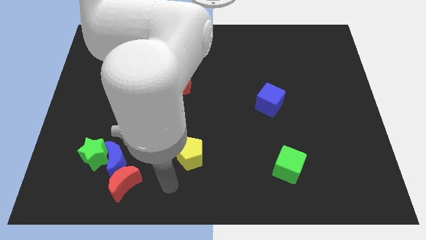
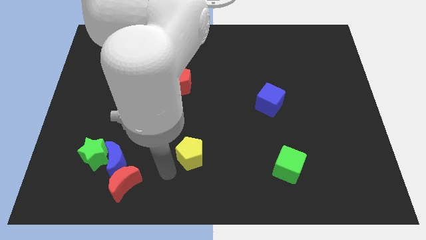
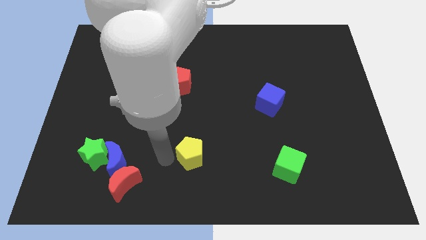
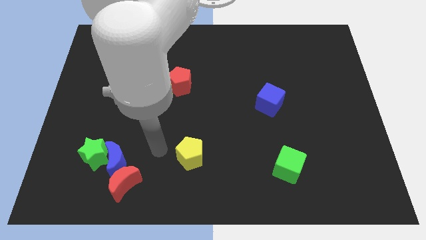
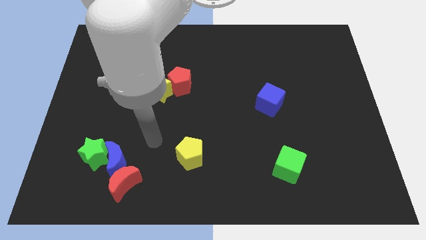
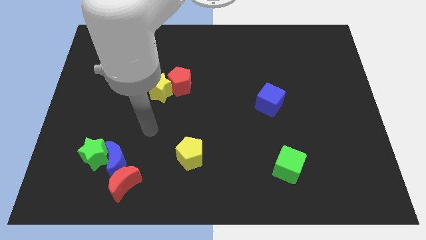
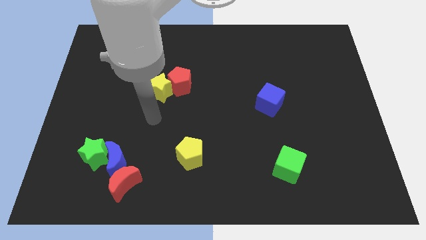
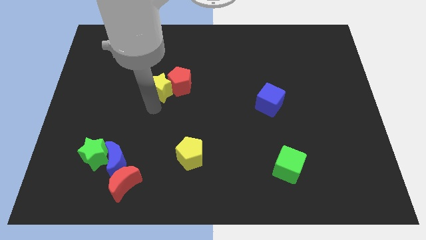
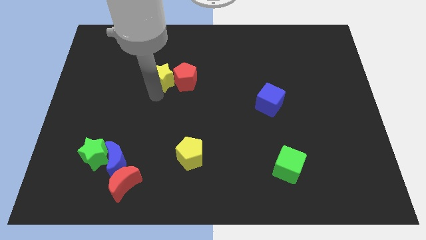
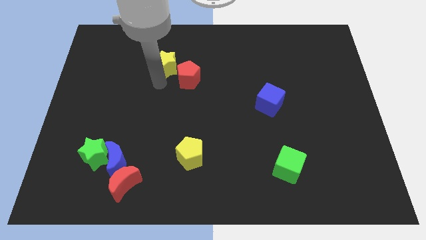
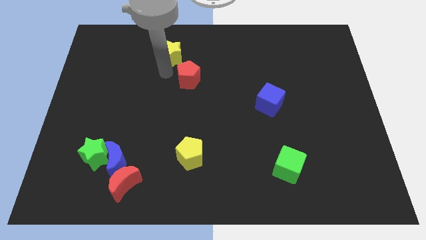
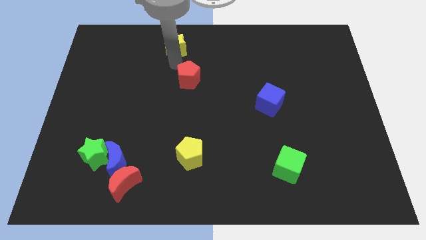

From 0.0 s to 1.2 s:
pull the red pentagon apart from the yellow star

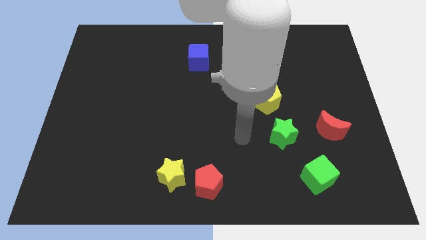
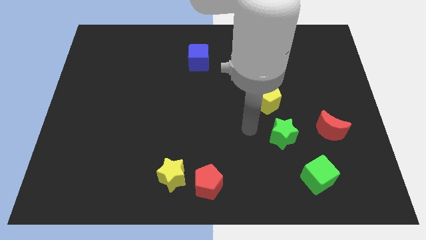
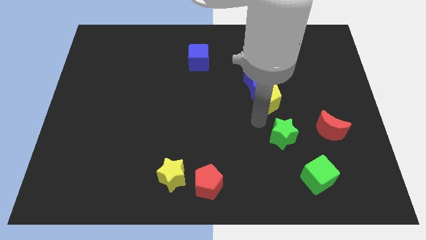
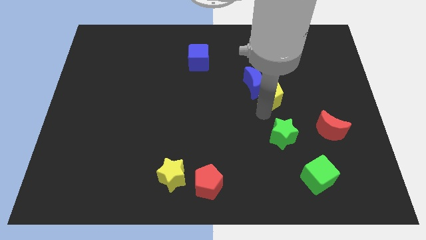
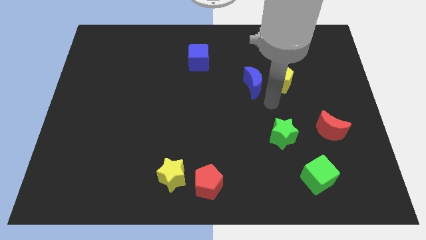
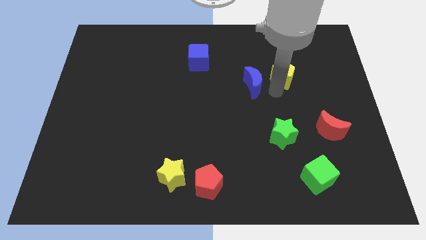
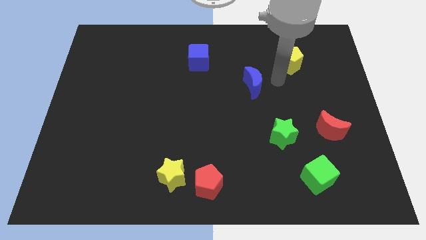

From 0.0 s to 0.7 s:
pull the blue moon apart from the yellow pentagon

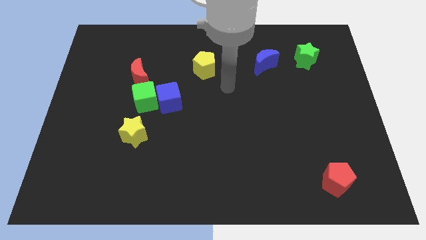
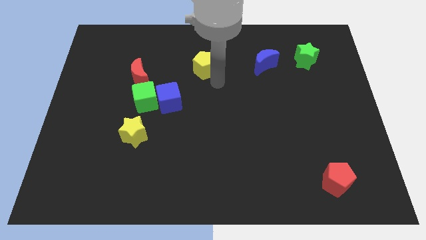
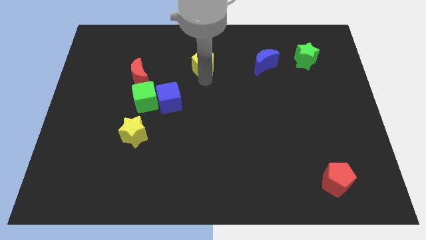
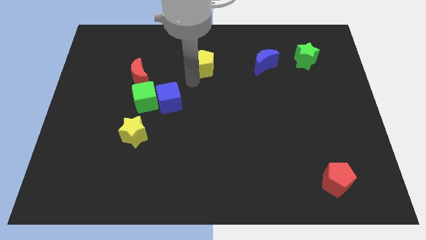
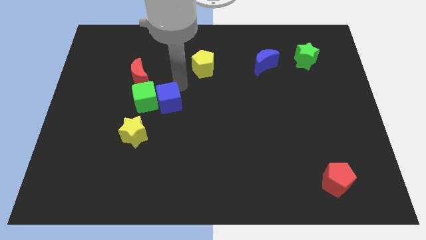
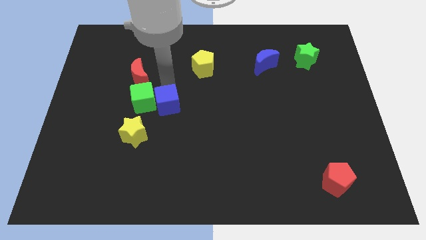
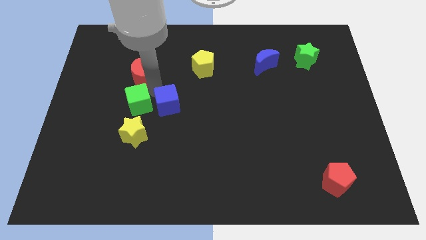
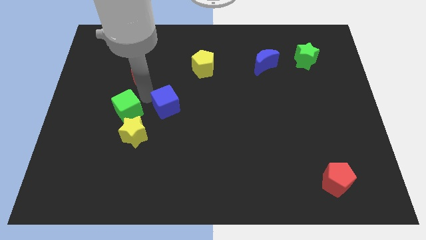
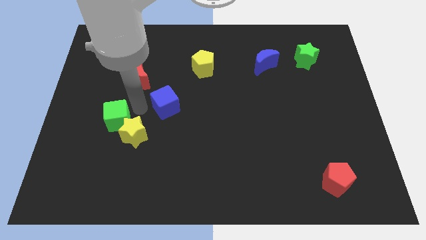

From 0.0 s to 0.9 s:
move the blue cube away from the green cube

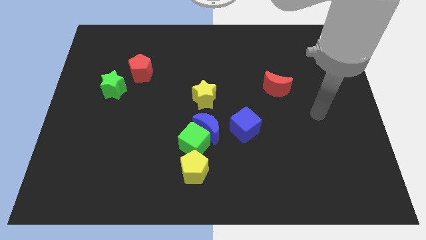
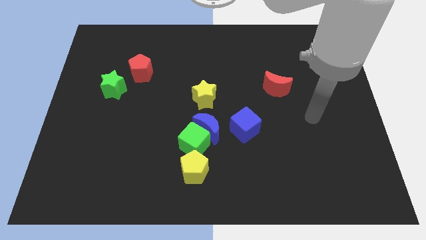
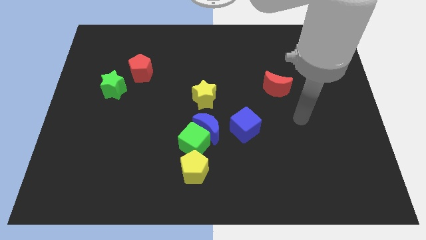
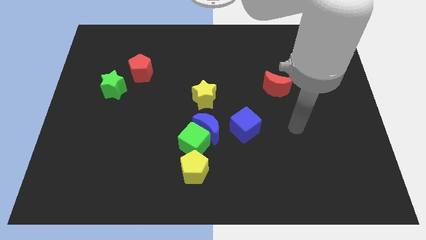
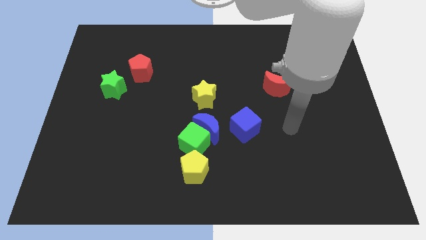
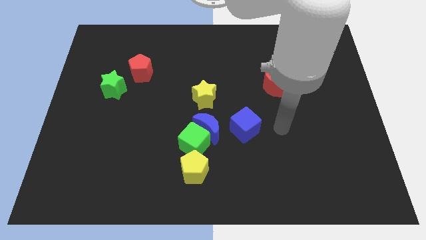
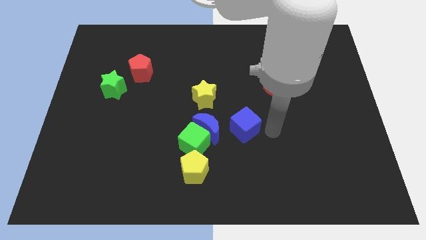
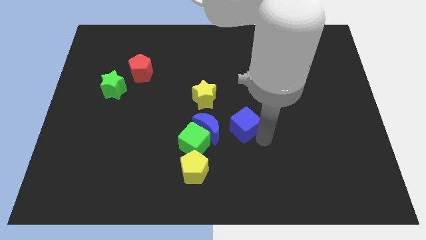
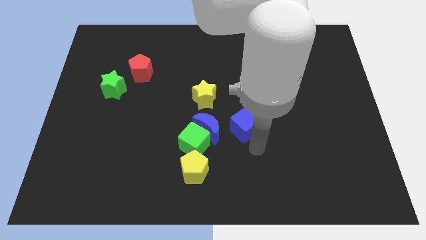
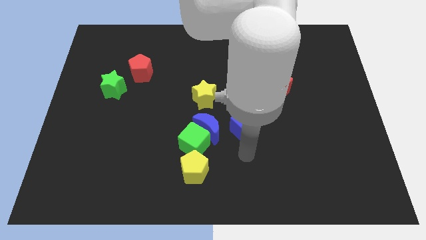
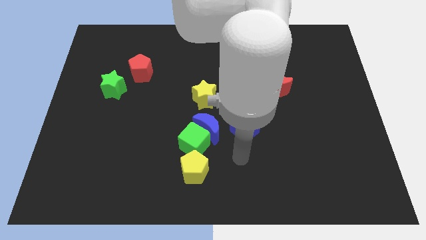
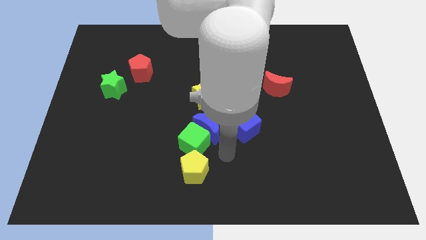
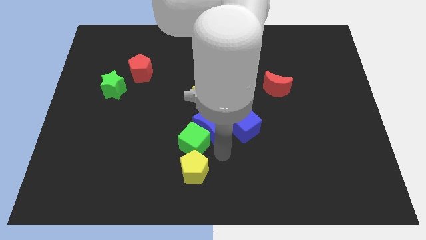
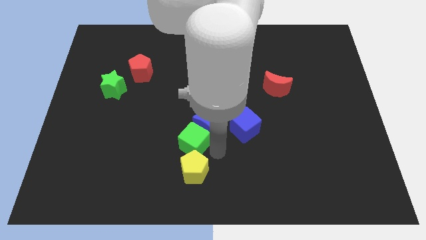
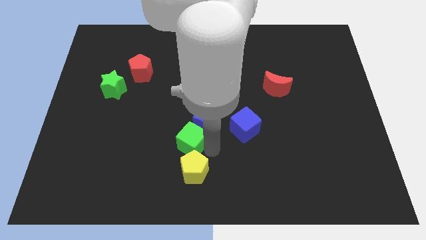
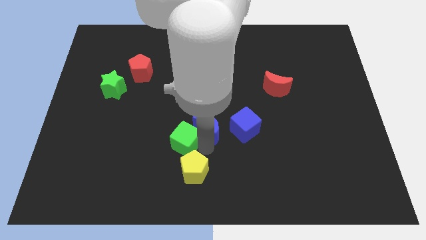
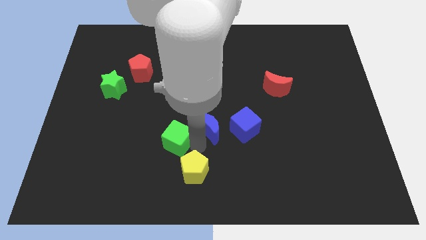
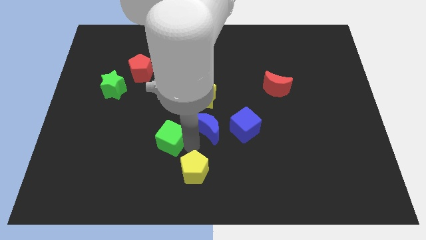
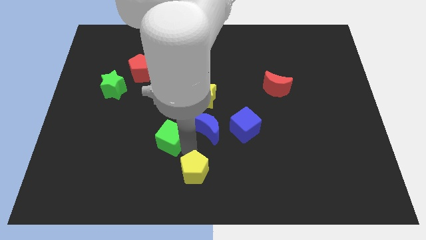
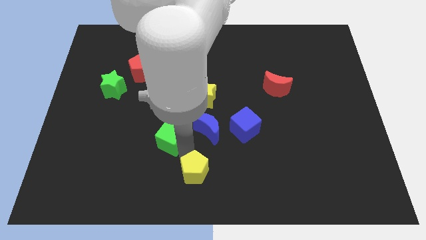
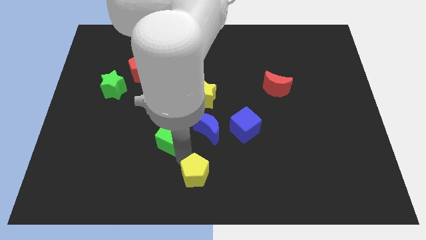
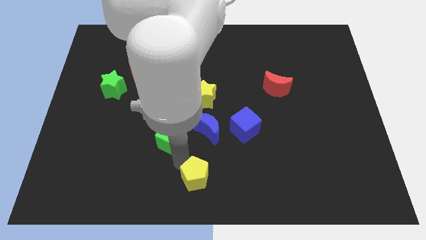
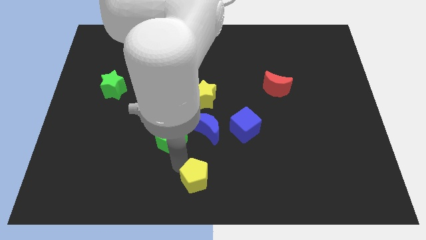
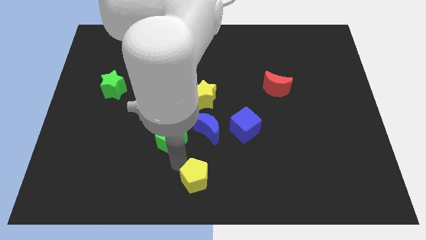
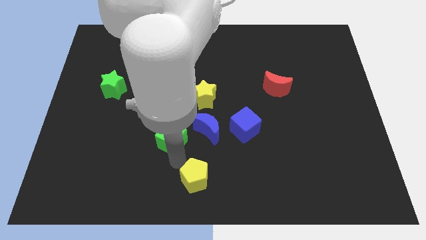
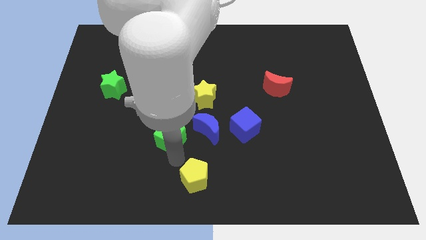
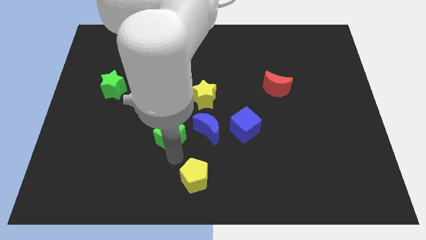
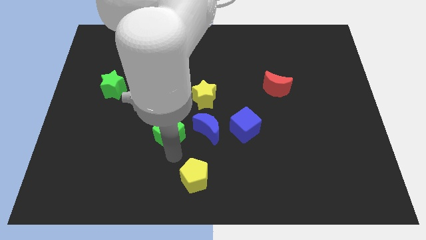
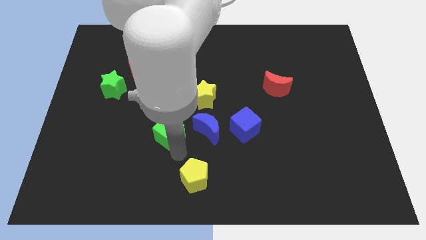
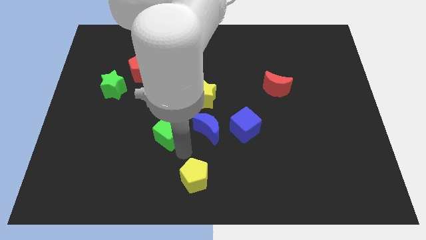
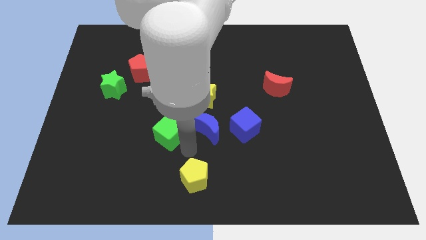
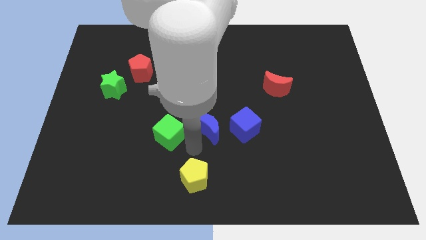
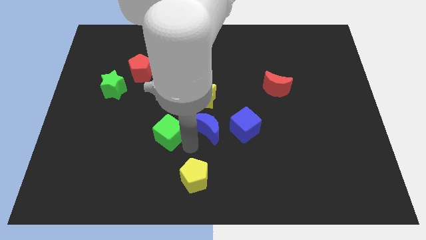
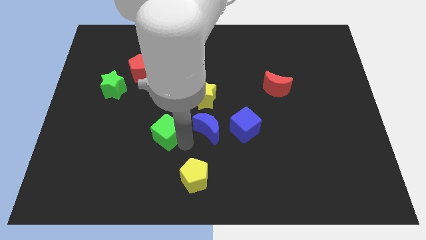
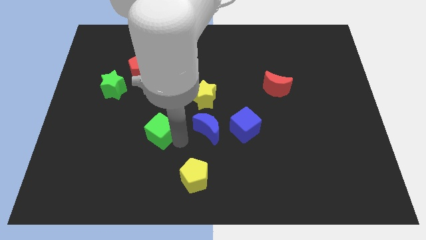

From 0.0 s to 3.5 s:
pull the green cube apart from the blue moon and yellow pentagon

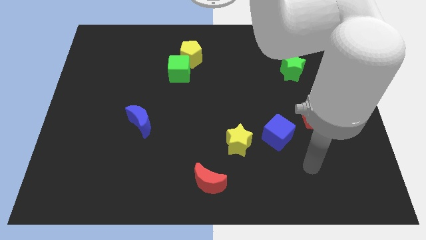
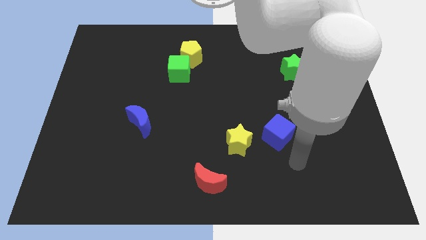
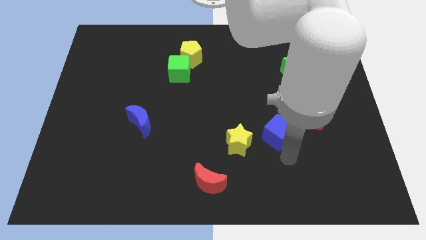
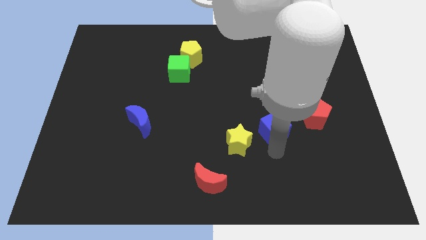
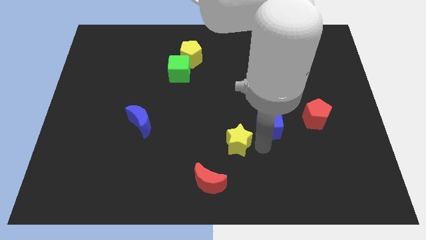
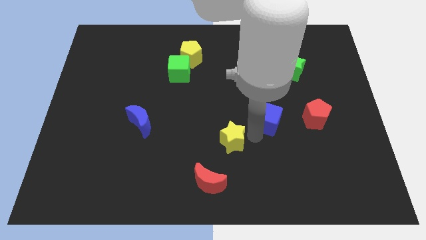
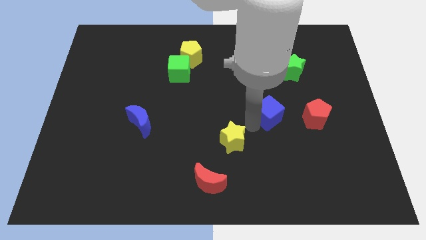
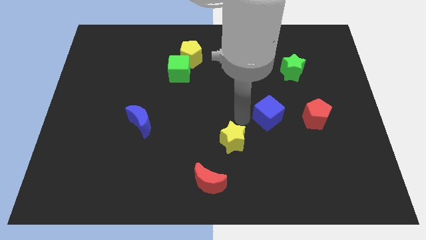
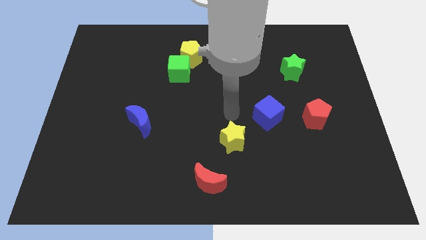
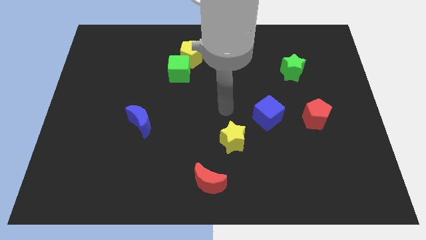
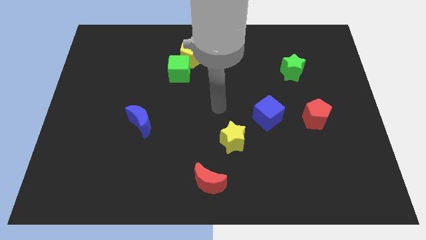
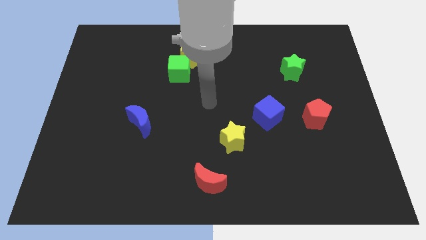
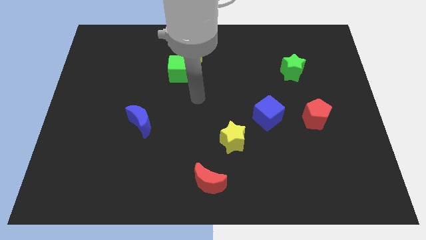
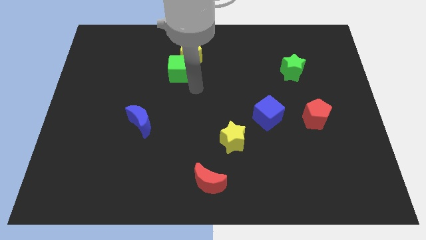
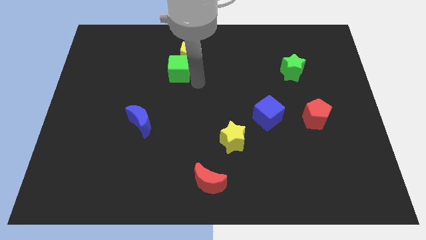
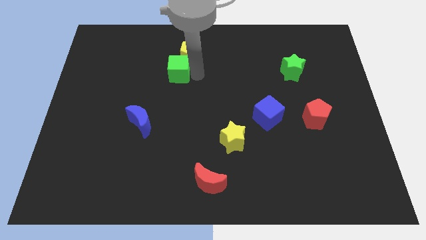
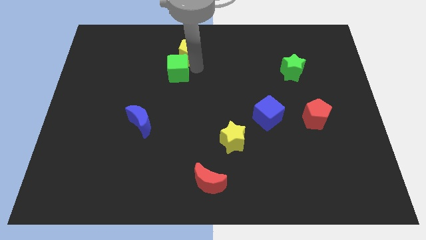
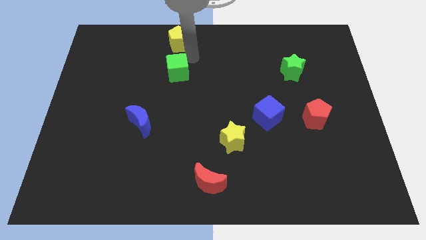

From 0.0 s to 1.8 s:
move the green cube away from the yellow pentagon

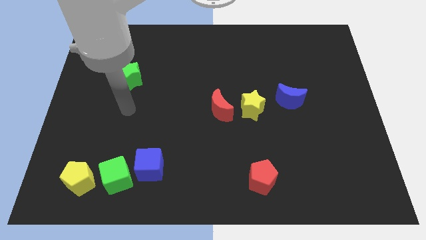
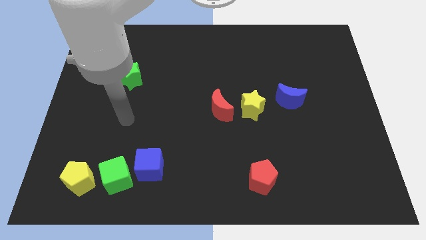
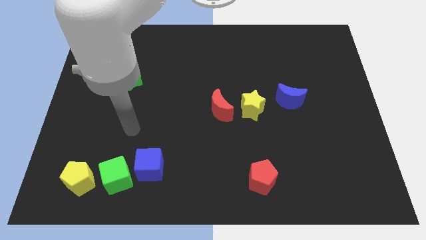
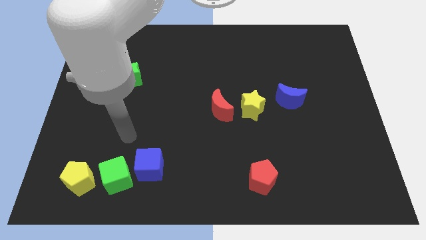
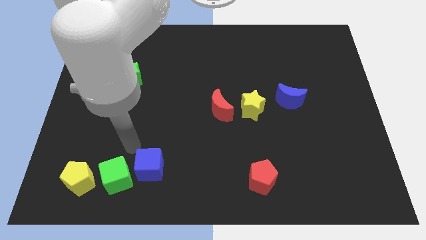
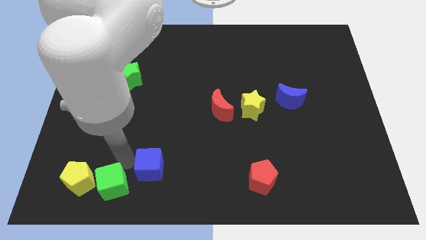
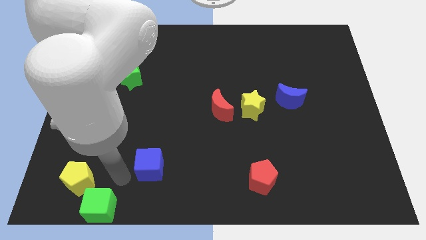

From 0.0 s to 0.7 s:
pull the blue cube apart from the green cube

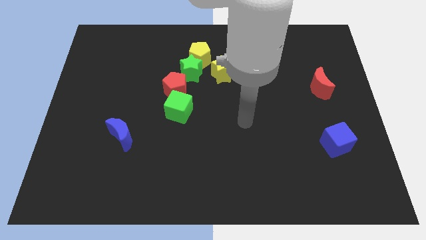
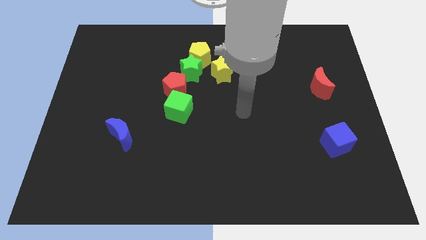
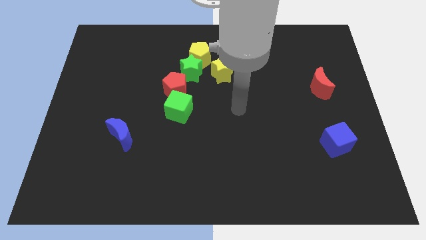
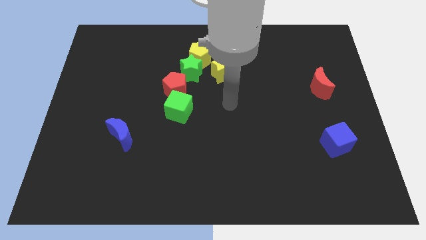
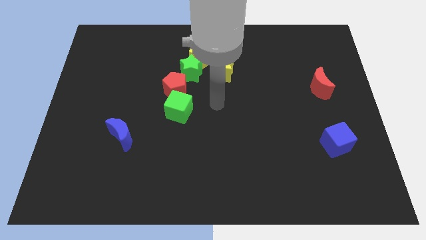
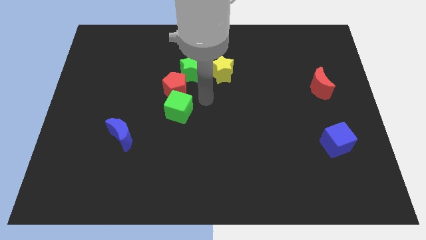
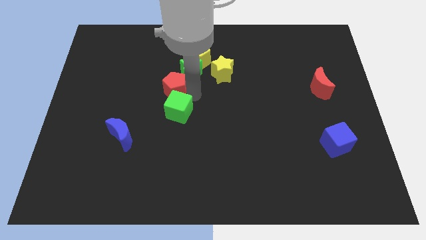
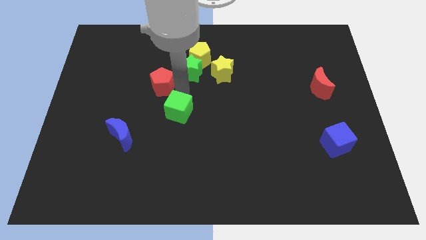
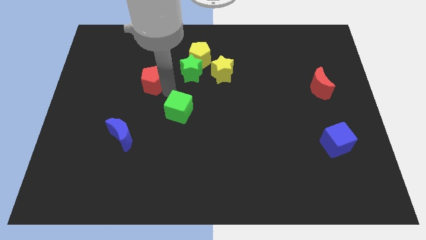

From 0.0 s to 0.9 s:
pull the green cube apart from the red pentagon
